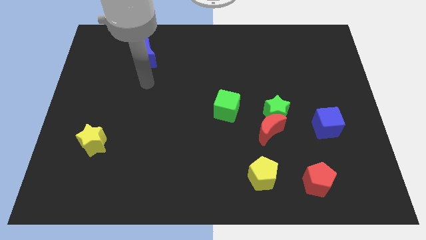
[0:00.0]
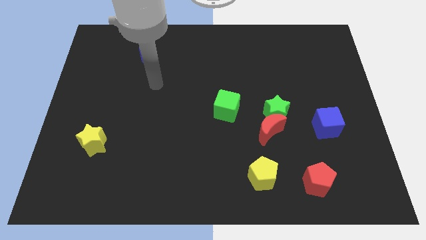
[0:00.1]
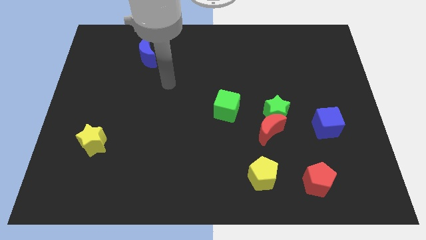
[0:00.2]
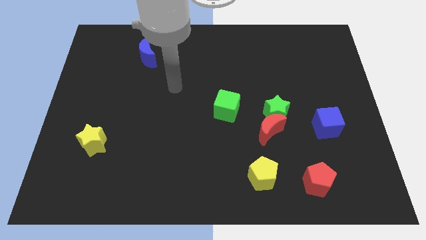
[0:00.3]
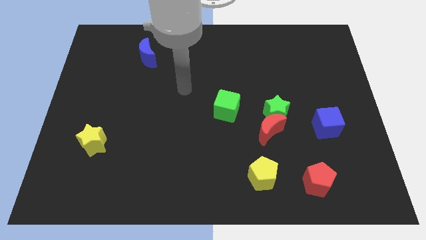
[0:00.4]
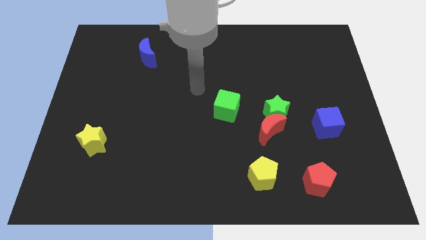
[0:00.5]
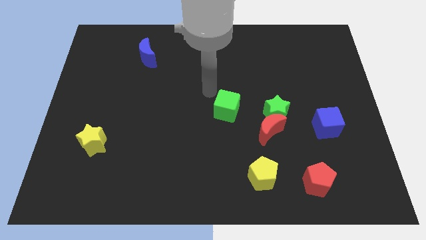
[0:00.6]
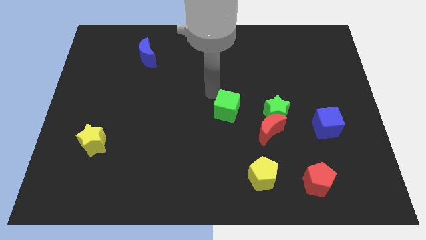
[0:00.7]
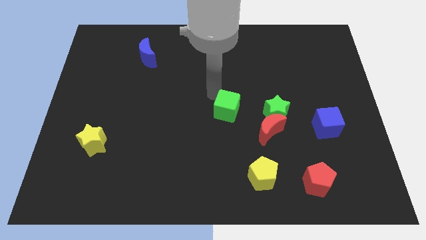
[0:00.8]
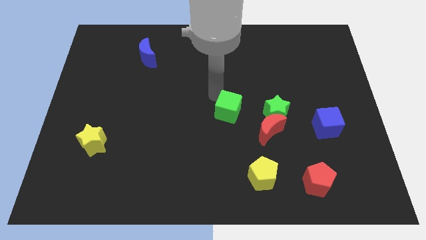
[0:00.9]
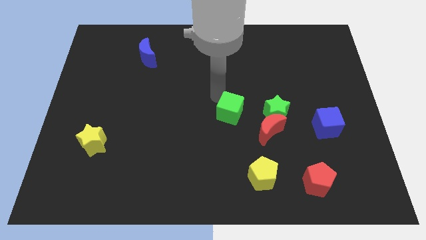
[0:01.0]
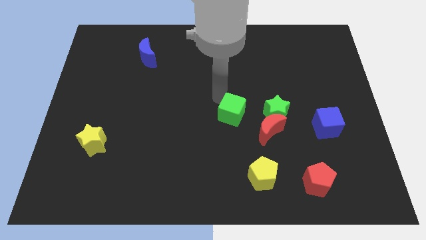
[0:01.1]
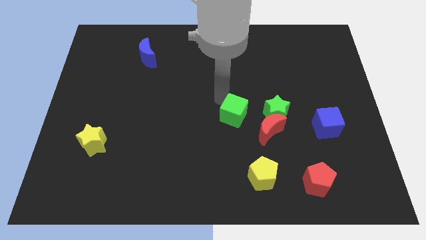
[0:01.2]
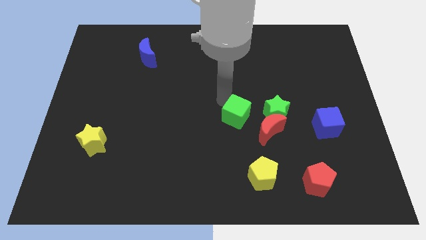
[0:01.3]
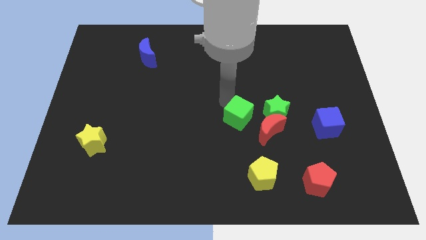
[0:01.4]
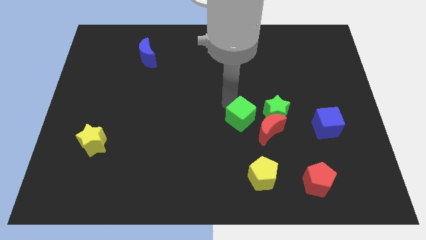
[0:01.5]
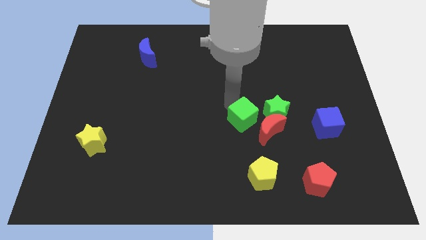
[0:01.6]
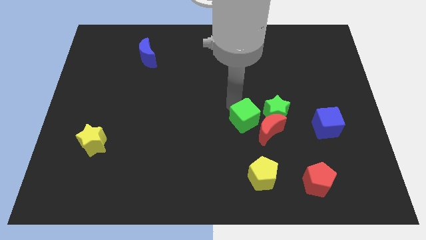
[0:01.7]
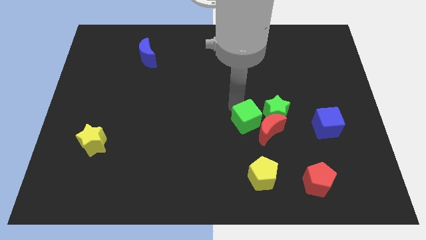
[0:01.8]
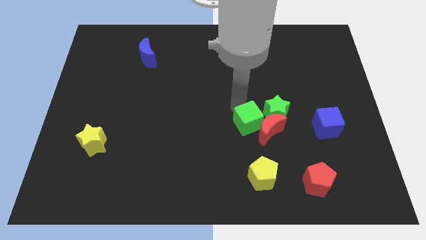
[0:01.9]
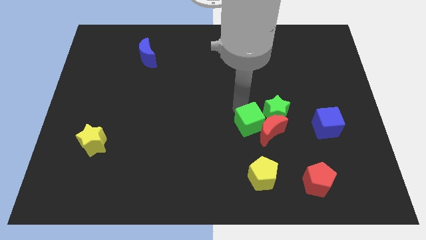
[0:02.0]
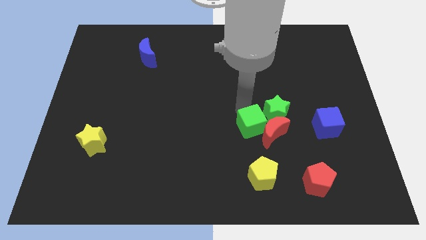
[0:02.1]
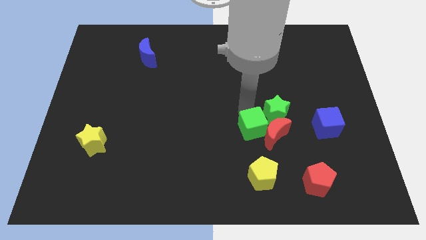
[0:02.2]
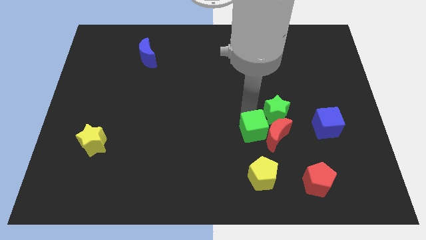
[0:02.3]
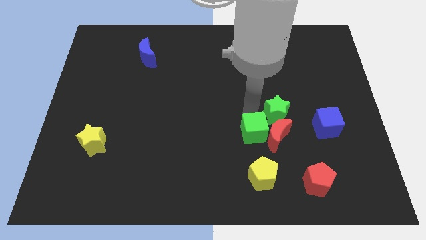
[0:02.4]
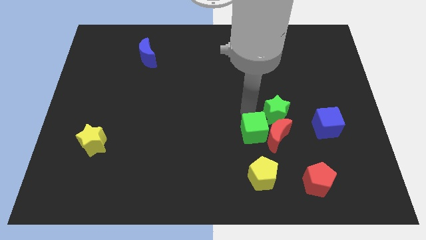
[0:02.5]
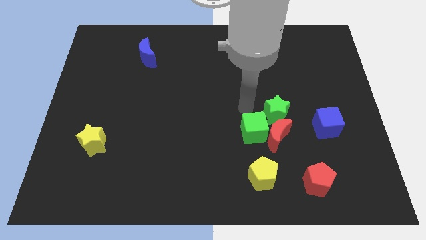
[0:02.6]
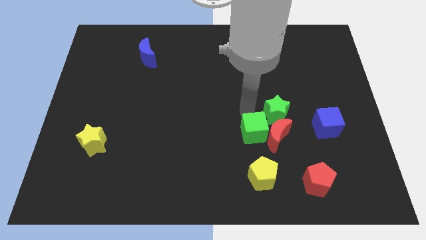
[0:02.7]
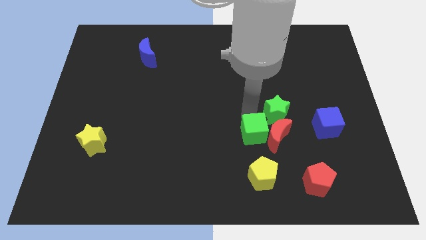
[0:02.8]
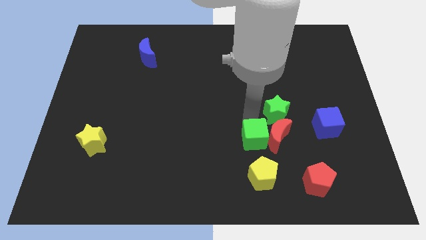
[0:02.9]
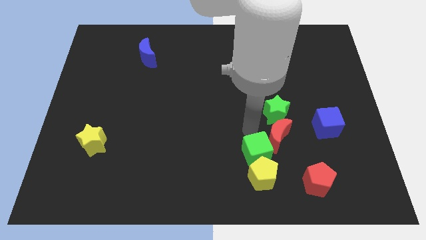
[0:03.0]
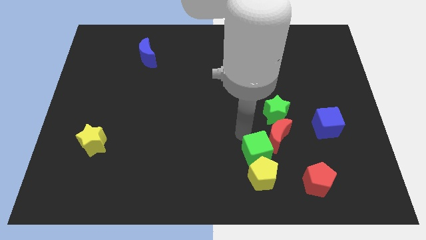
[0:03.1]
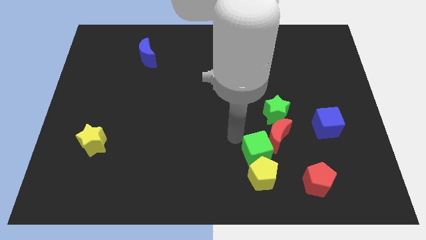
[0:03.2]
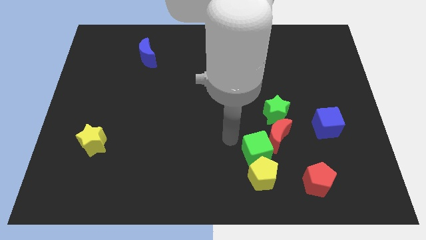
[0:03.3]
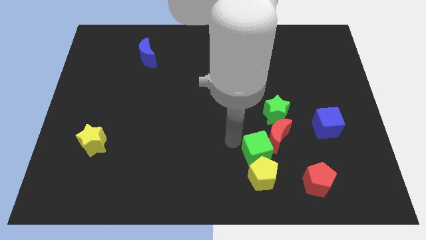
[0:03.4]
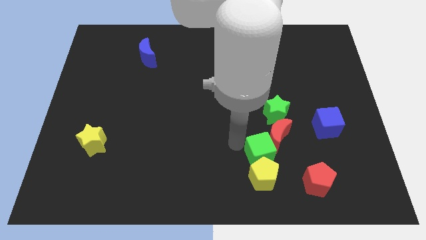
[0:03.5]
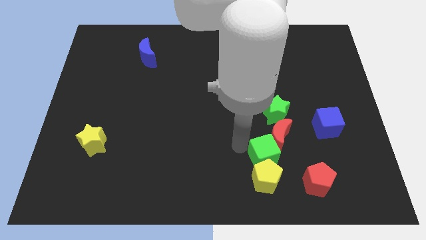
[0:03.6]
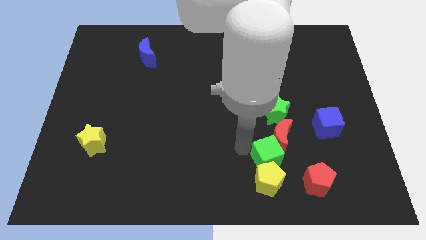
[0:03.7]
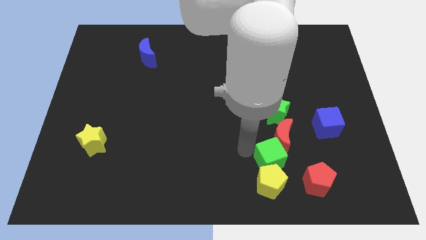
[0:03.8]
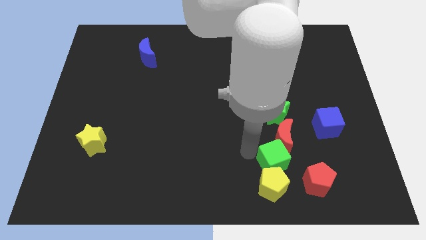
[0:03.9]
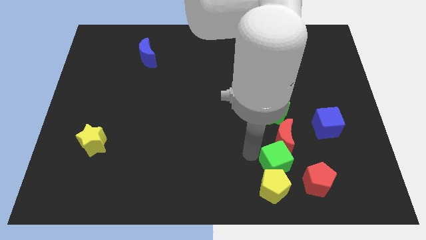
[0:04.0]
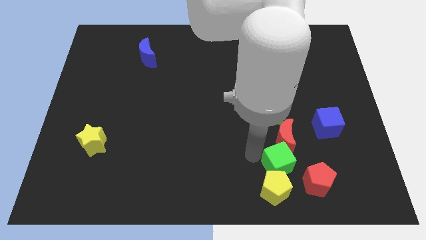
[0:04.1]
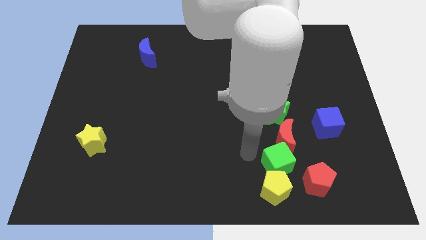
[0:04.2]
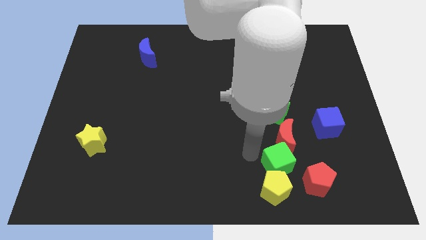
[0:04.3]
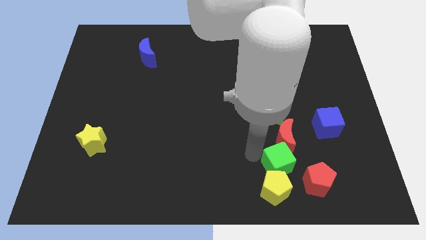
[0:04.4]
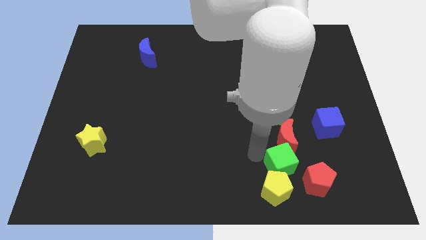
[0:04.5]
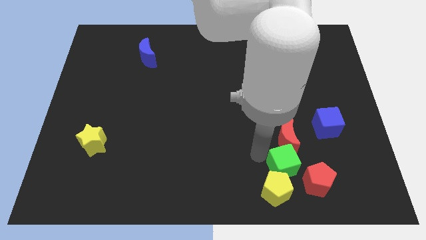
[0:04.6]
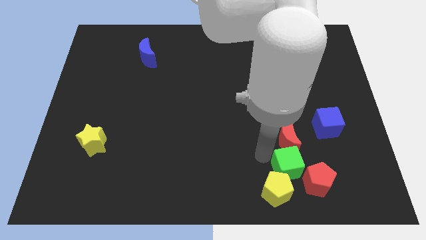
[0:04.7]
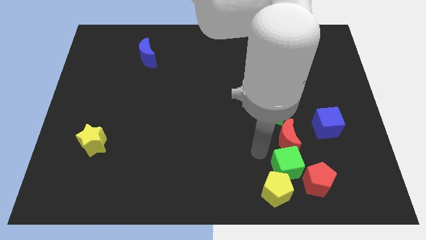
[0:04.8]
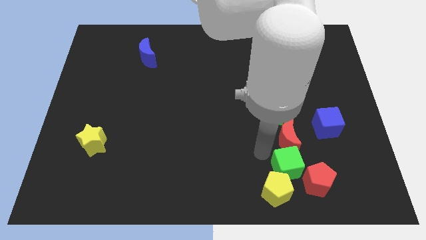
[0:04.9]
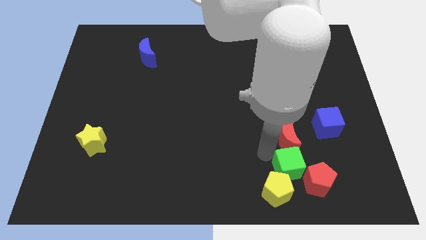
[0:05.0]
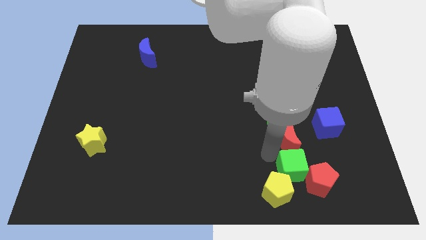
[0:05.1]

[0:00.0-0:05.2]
move the green cube close to the red pentagon

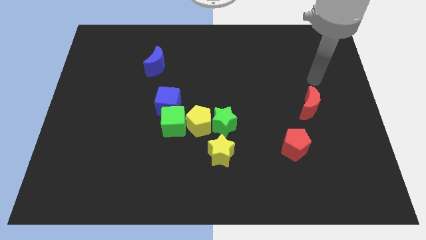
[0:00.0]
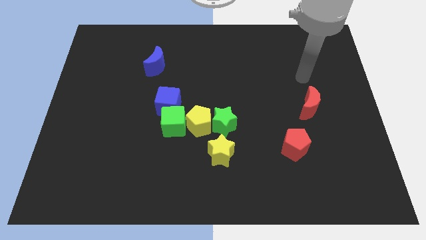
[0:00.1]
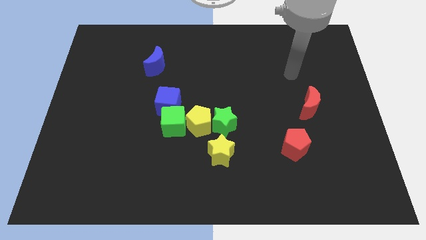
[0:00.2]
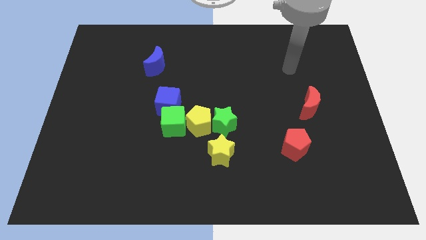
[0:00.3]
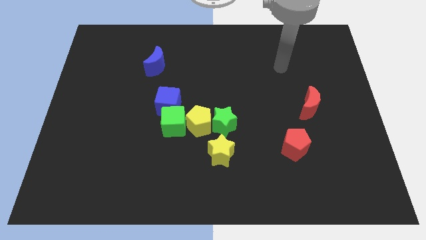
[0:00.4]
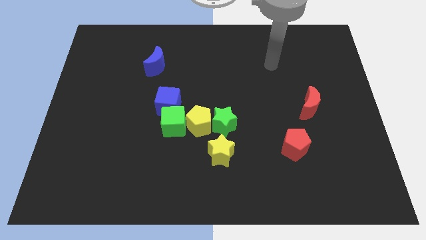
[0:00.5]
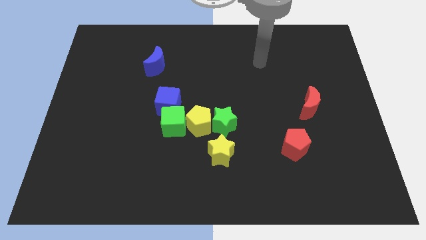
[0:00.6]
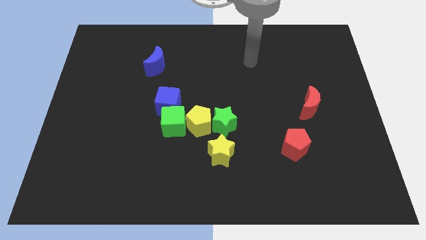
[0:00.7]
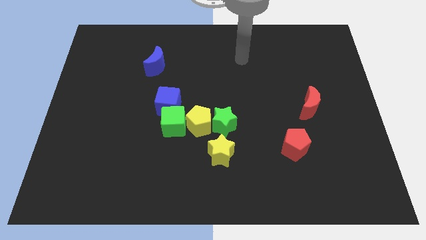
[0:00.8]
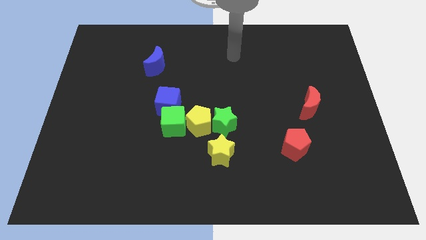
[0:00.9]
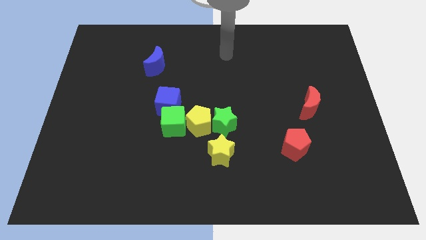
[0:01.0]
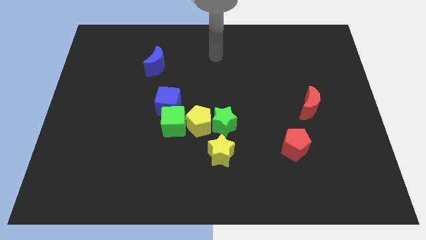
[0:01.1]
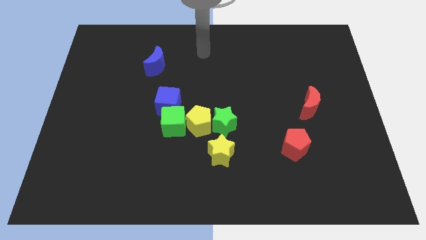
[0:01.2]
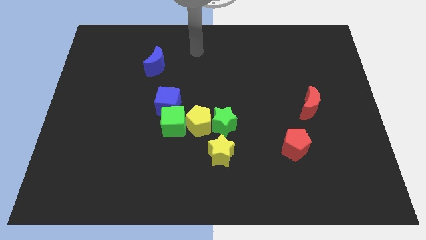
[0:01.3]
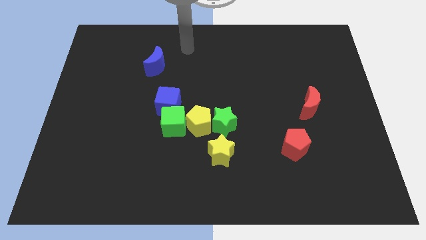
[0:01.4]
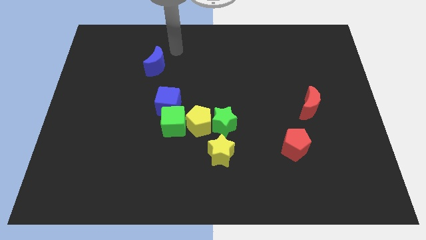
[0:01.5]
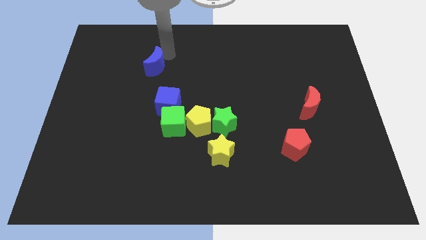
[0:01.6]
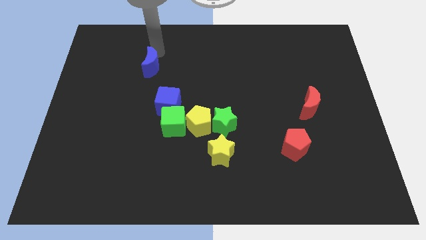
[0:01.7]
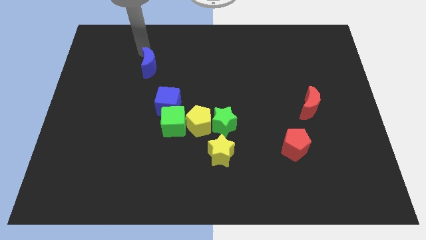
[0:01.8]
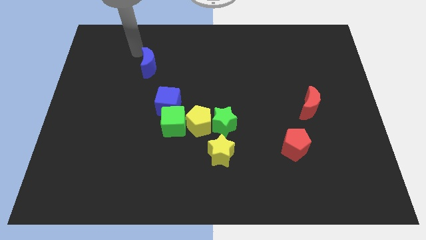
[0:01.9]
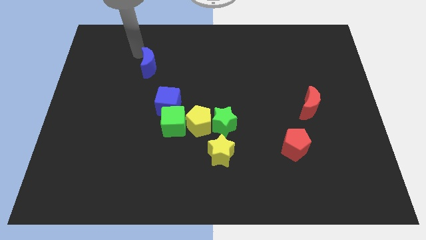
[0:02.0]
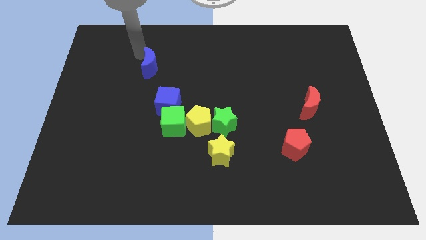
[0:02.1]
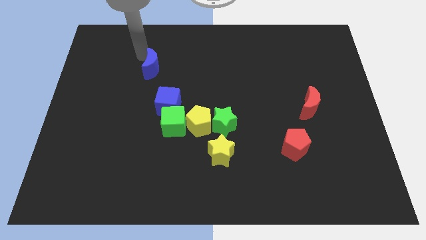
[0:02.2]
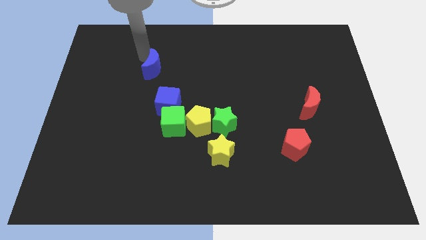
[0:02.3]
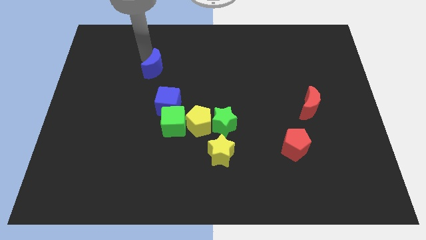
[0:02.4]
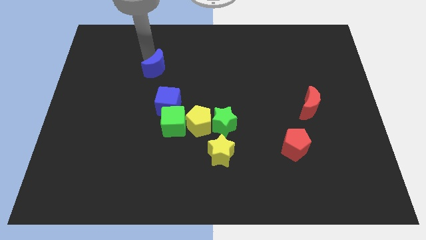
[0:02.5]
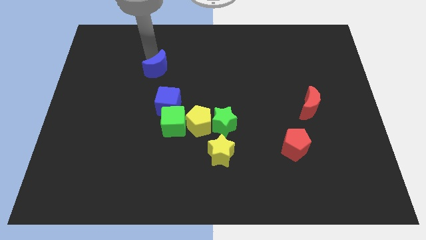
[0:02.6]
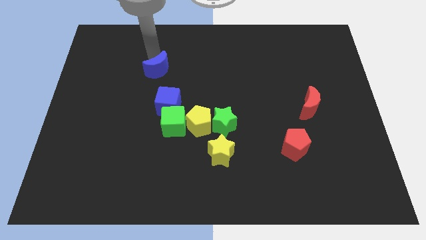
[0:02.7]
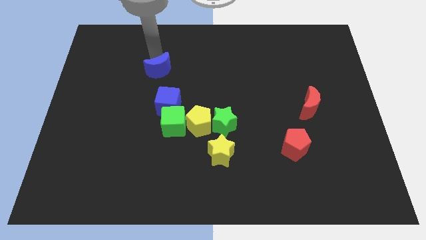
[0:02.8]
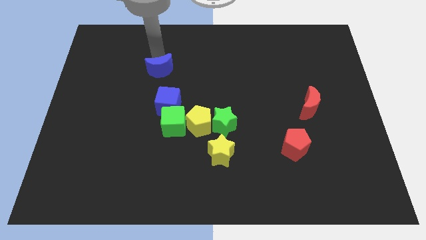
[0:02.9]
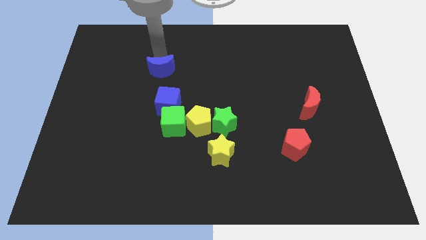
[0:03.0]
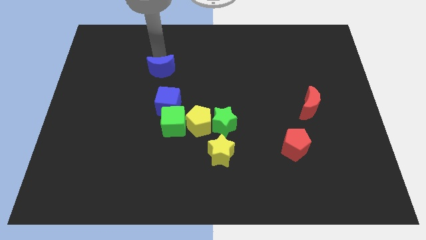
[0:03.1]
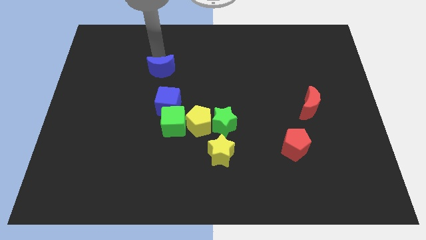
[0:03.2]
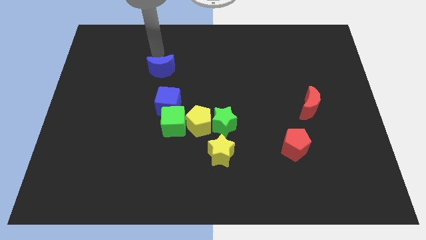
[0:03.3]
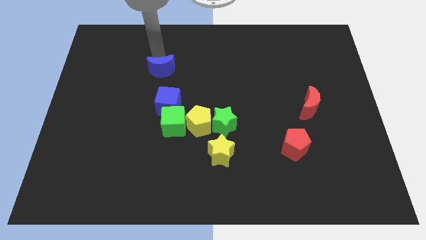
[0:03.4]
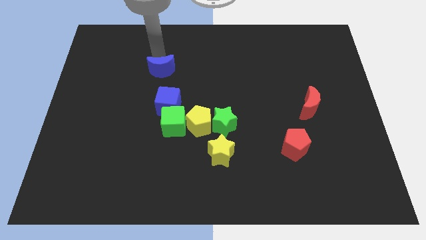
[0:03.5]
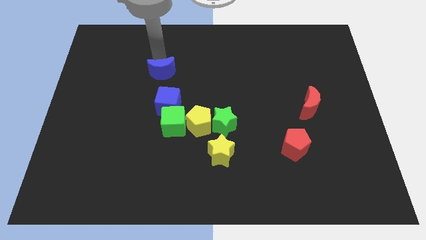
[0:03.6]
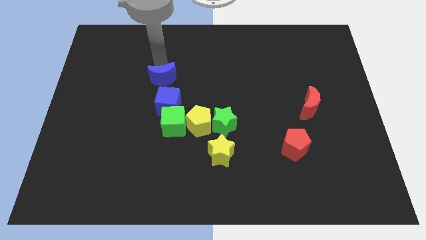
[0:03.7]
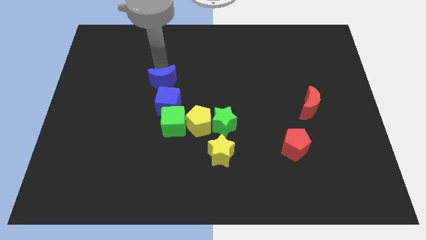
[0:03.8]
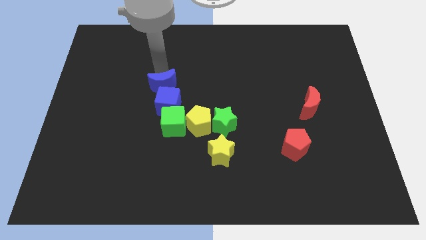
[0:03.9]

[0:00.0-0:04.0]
move the blue moon next to the blue cube
